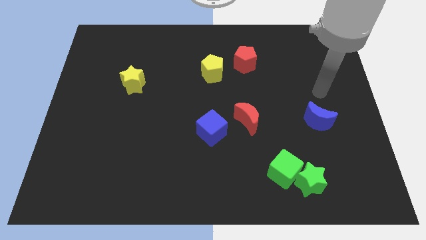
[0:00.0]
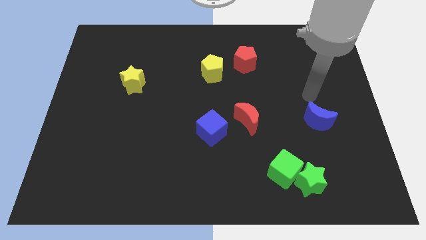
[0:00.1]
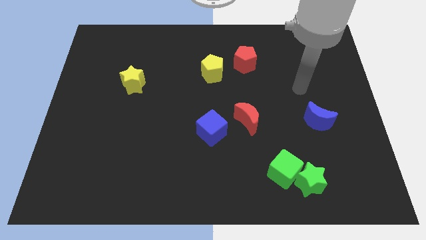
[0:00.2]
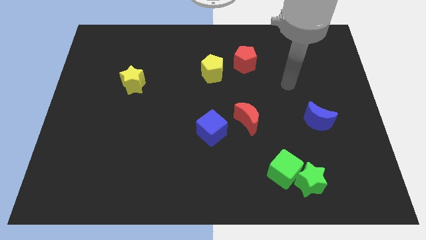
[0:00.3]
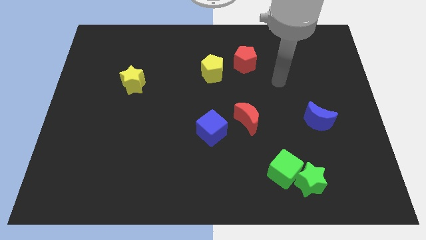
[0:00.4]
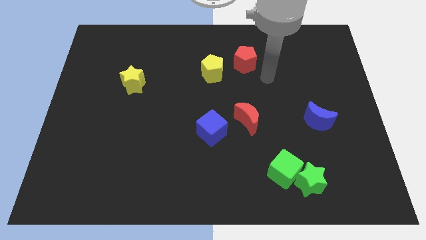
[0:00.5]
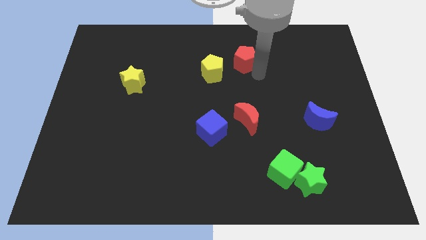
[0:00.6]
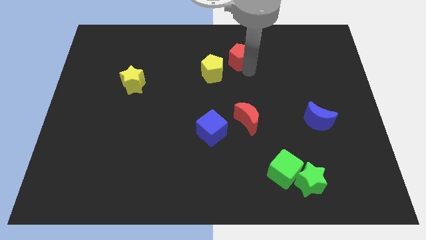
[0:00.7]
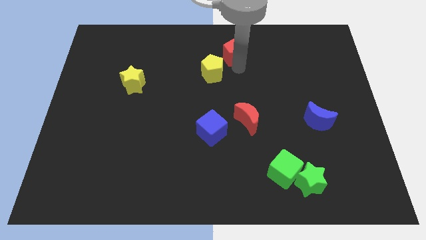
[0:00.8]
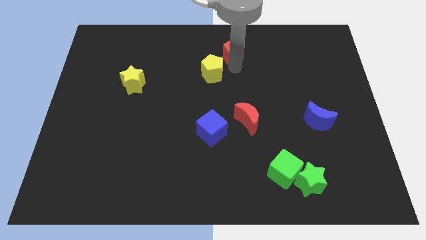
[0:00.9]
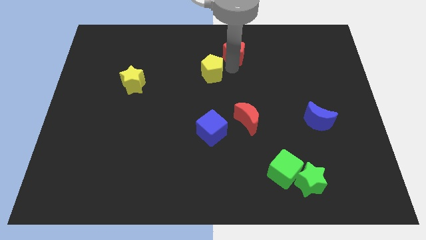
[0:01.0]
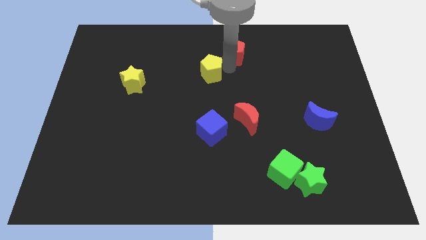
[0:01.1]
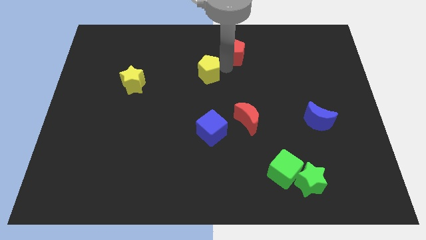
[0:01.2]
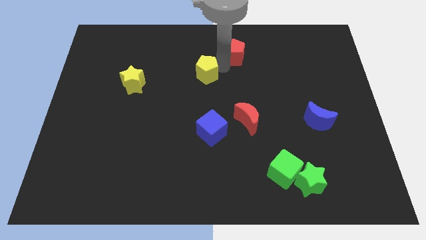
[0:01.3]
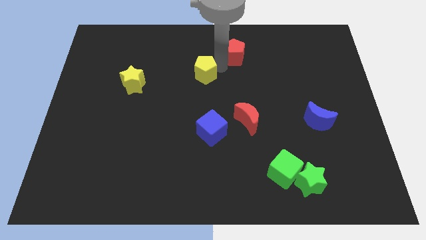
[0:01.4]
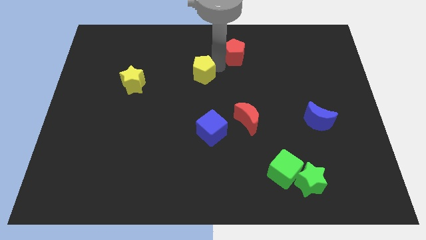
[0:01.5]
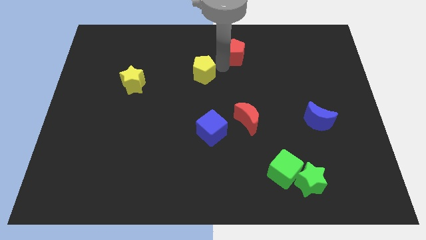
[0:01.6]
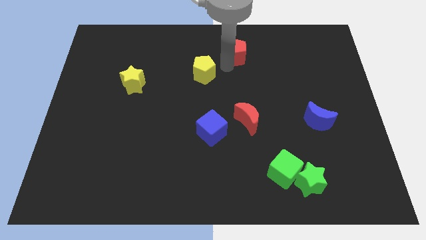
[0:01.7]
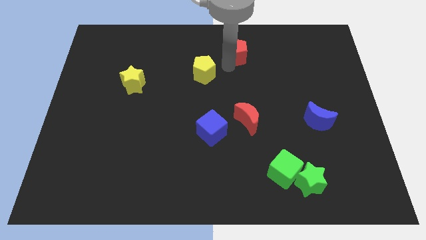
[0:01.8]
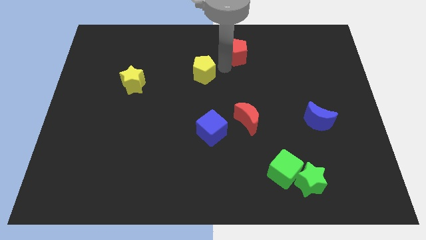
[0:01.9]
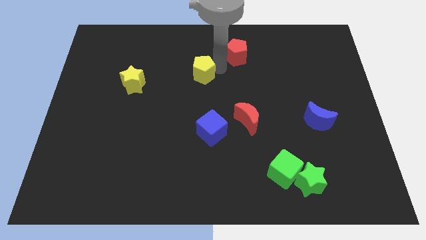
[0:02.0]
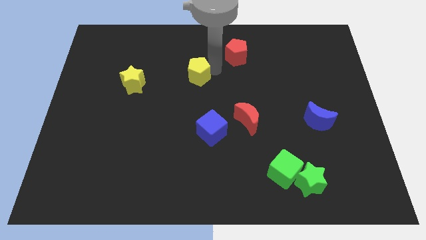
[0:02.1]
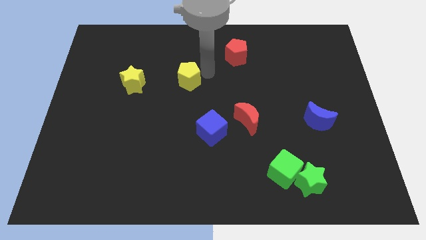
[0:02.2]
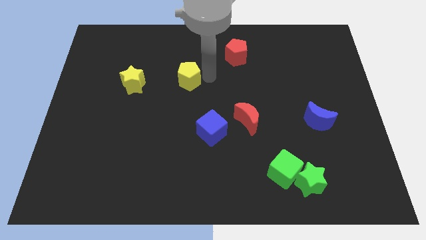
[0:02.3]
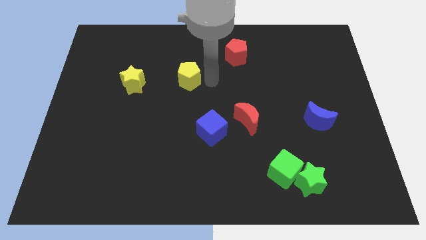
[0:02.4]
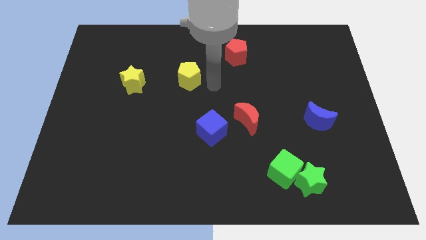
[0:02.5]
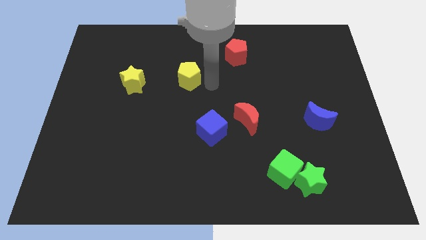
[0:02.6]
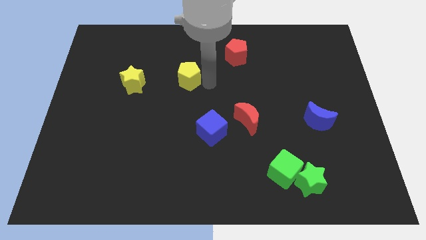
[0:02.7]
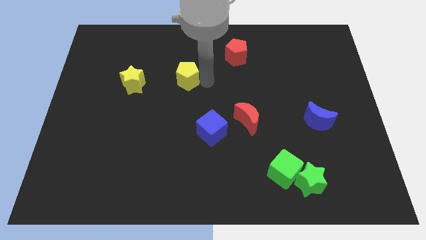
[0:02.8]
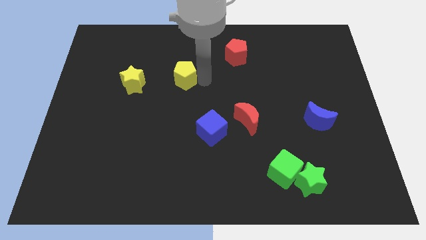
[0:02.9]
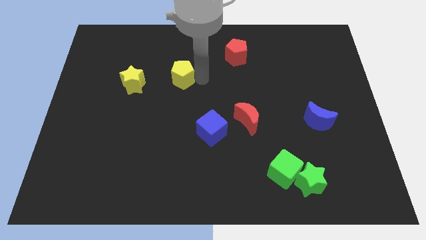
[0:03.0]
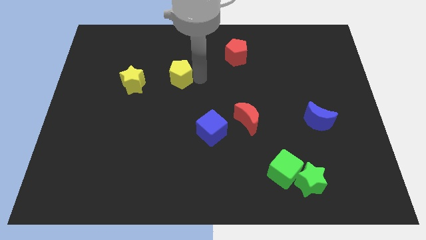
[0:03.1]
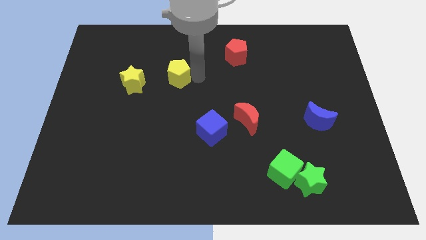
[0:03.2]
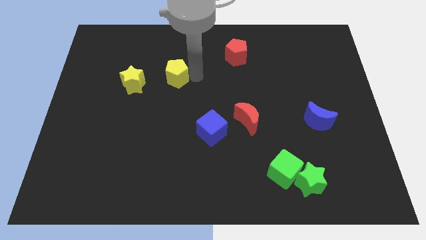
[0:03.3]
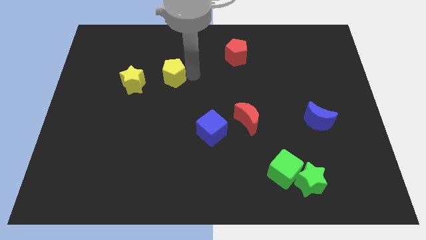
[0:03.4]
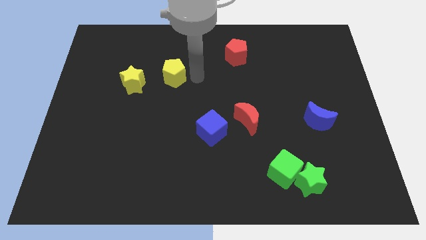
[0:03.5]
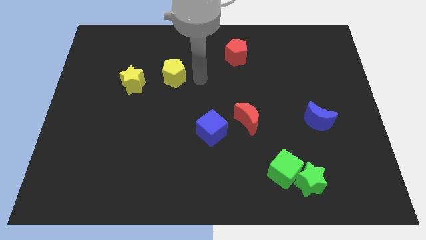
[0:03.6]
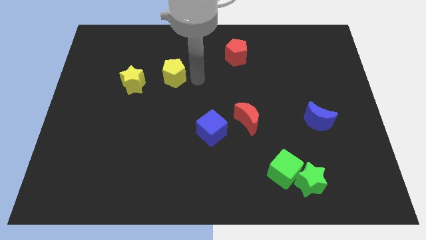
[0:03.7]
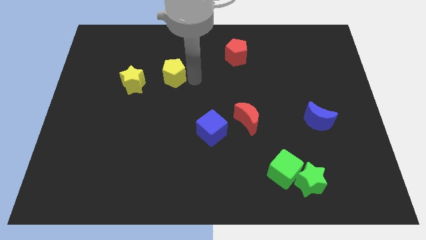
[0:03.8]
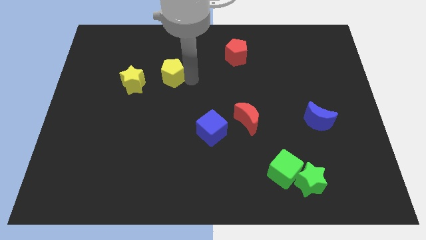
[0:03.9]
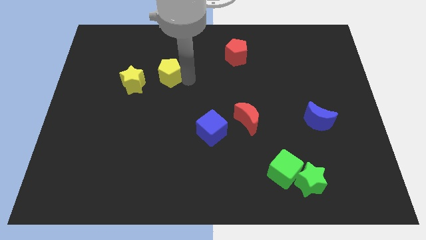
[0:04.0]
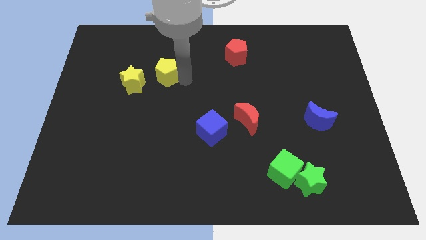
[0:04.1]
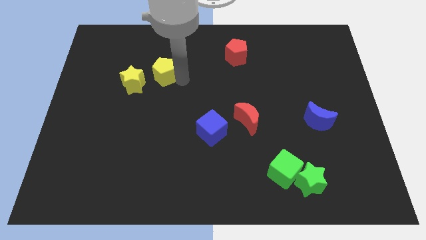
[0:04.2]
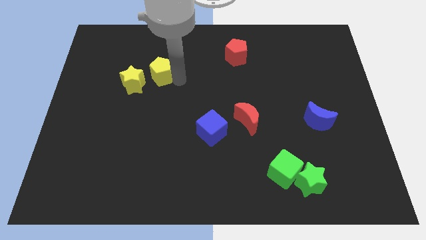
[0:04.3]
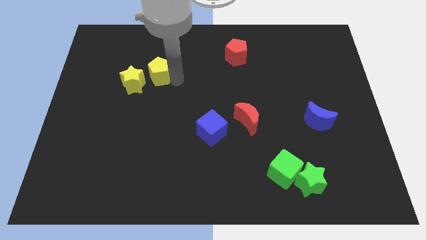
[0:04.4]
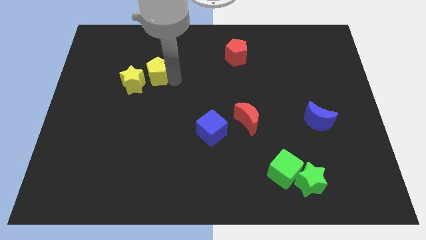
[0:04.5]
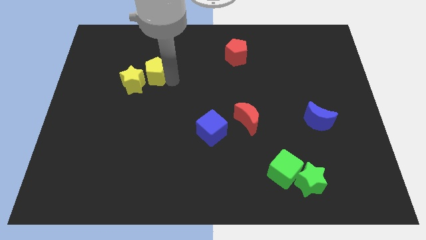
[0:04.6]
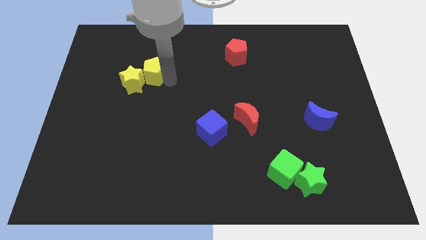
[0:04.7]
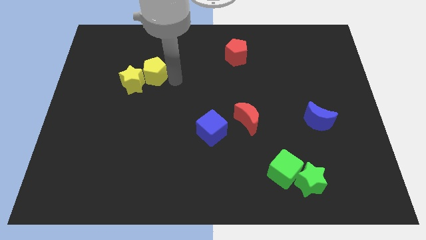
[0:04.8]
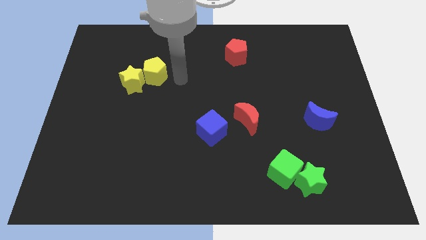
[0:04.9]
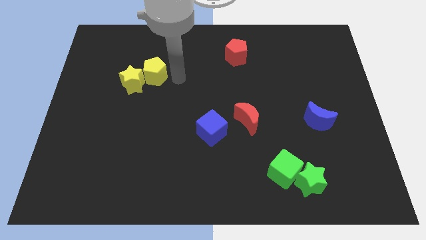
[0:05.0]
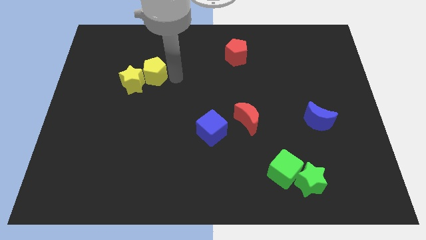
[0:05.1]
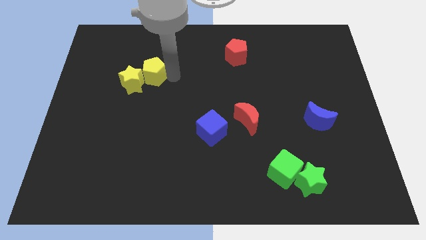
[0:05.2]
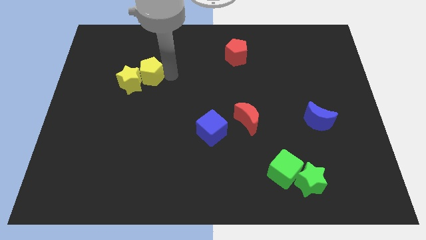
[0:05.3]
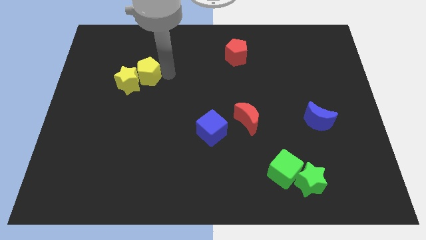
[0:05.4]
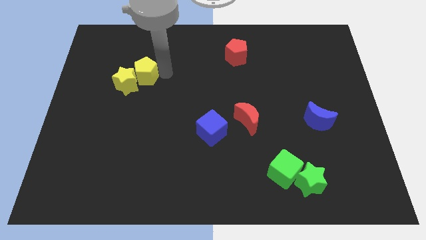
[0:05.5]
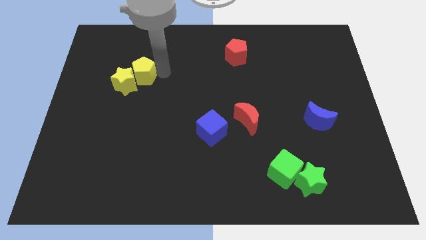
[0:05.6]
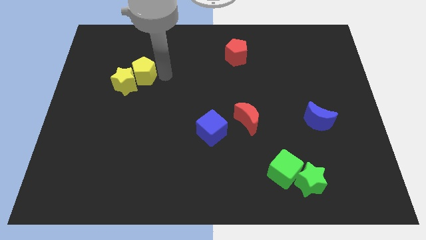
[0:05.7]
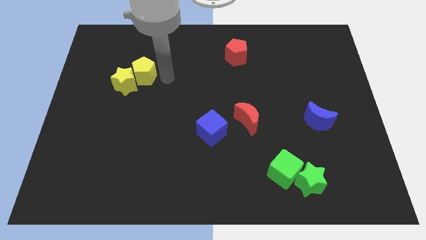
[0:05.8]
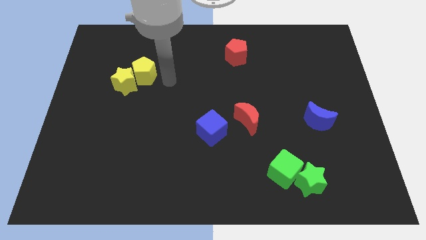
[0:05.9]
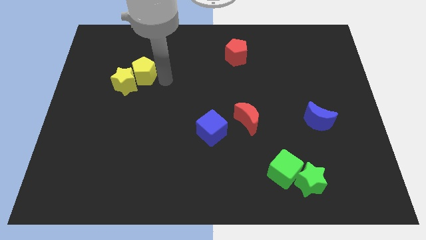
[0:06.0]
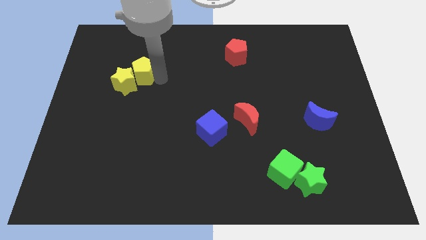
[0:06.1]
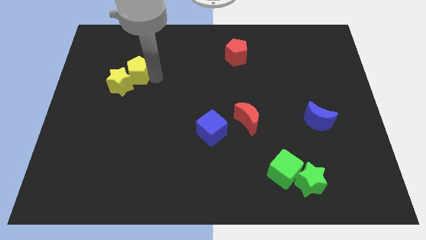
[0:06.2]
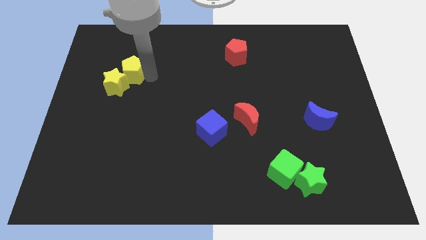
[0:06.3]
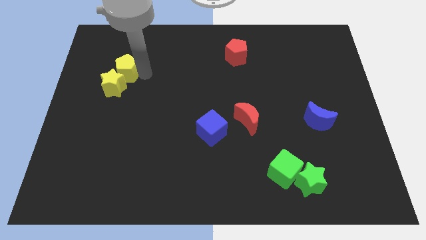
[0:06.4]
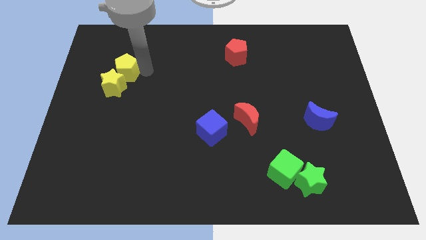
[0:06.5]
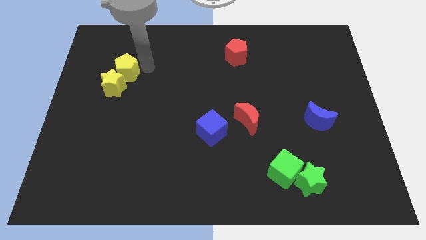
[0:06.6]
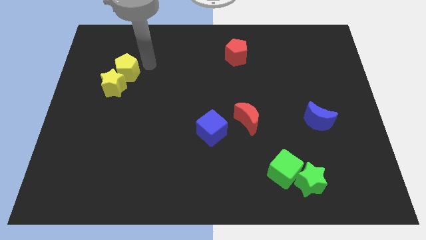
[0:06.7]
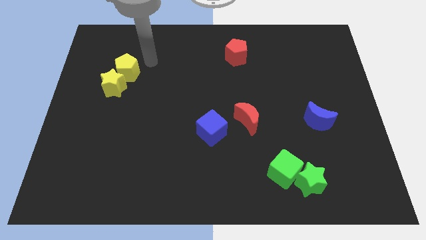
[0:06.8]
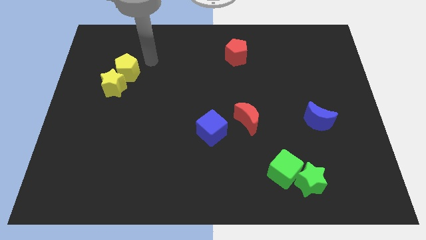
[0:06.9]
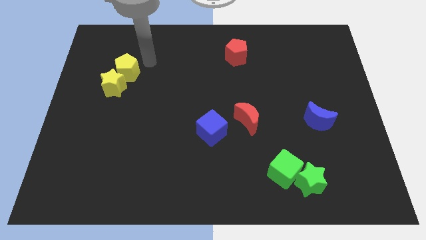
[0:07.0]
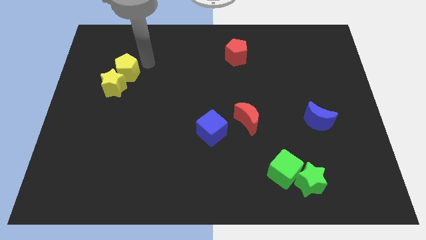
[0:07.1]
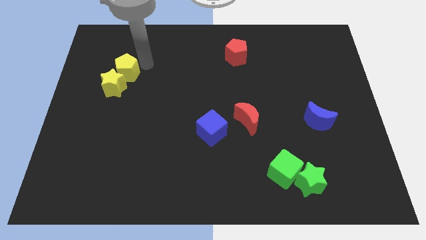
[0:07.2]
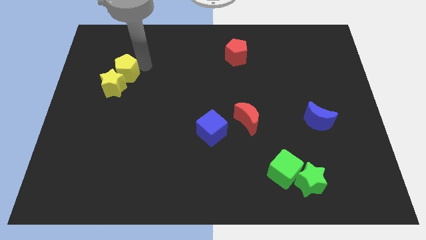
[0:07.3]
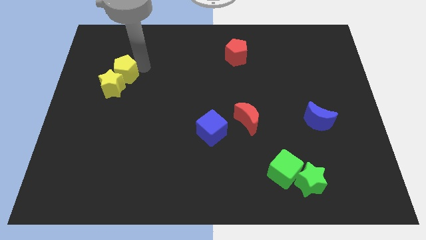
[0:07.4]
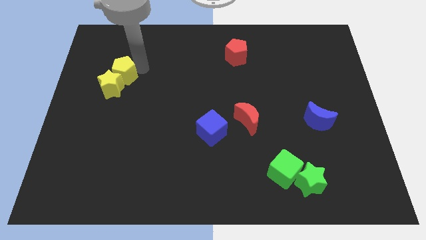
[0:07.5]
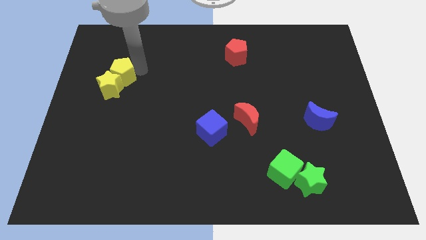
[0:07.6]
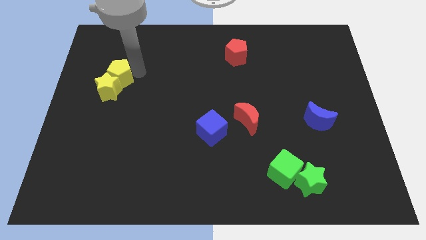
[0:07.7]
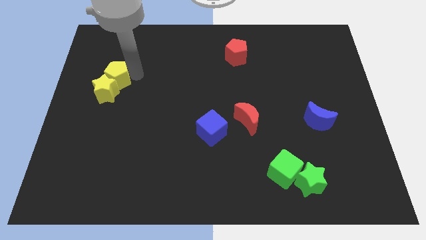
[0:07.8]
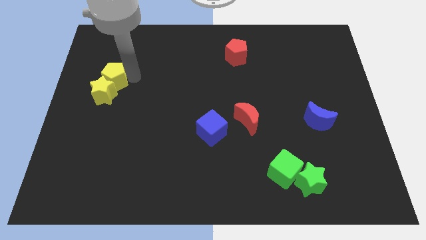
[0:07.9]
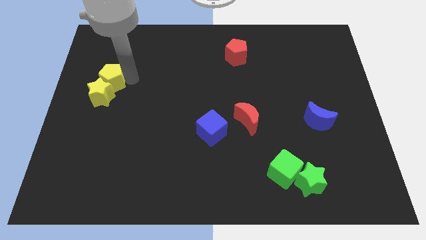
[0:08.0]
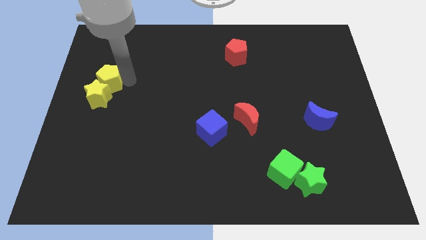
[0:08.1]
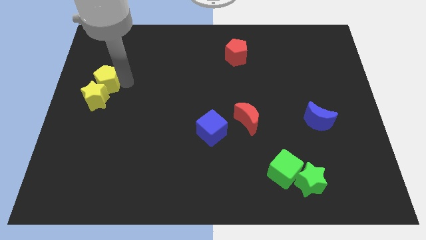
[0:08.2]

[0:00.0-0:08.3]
push the yellow pentagon to the left side
